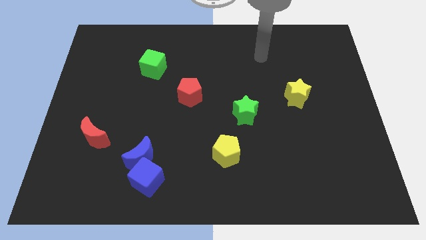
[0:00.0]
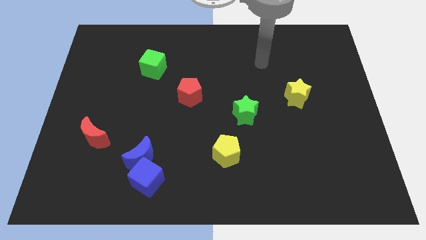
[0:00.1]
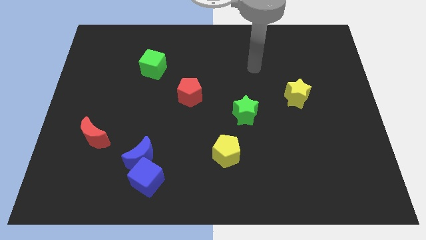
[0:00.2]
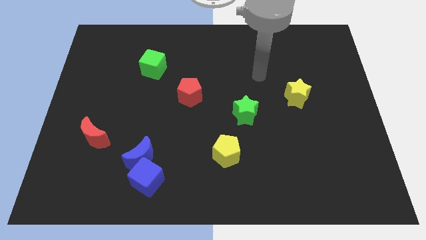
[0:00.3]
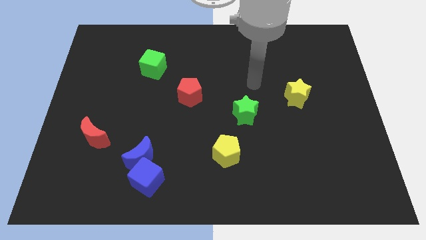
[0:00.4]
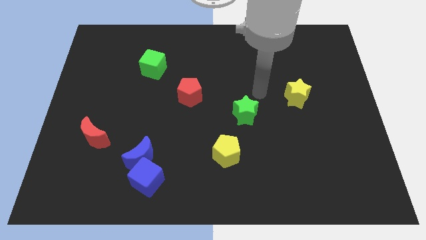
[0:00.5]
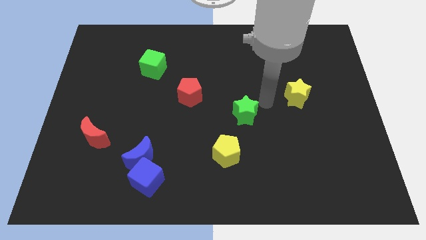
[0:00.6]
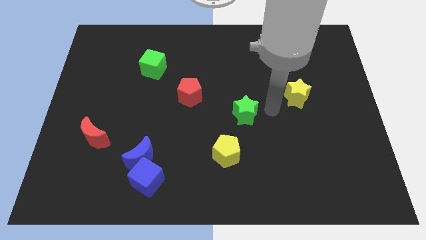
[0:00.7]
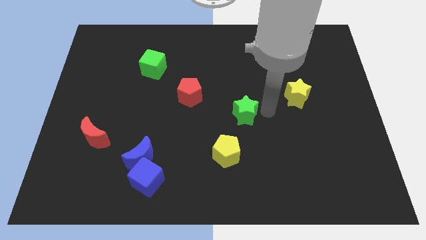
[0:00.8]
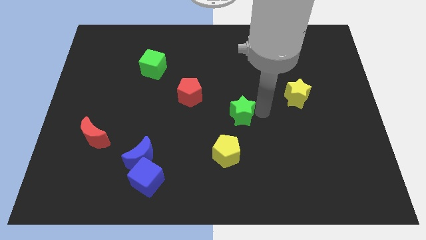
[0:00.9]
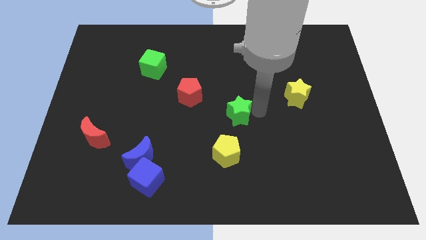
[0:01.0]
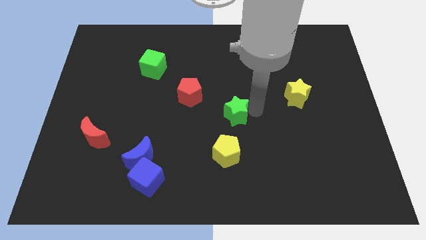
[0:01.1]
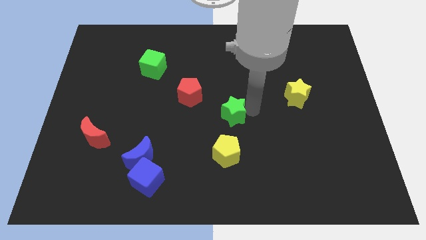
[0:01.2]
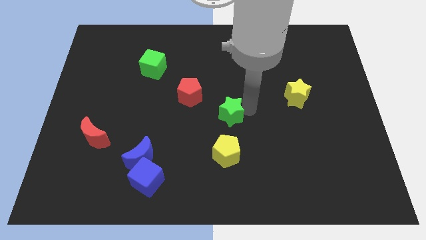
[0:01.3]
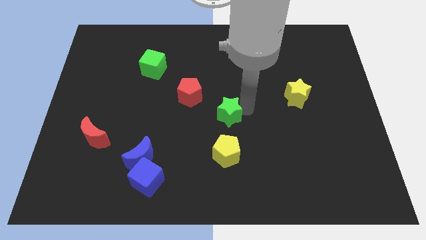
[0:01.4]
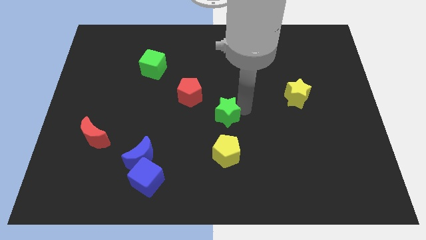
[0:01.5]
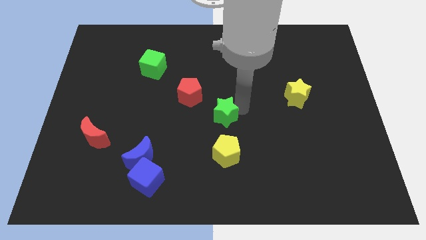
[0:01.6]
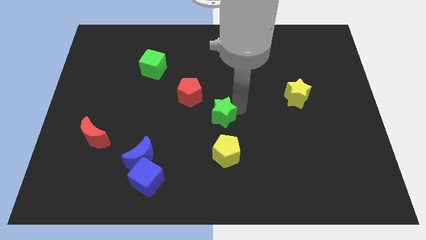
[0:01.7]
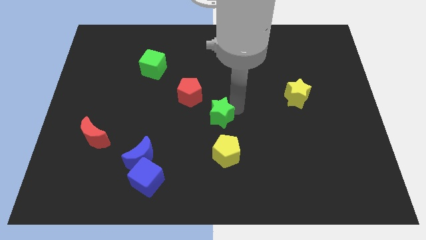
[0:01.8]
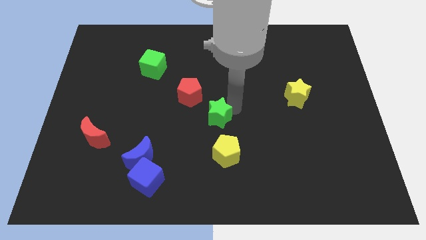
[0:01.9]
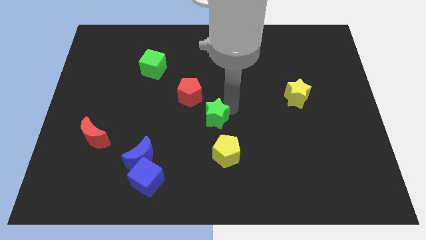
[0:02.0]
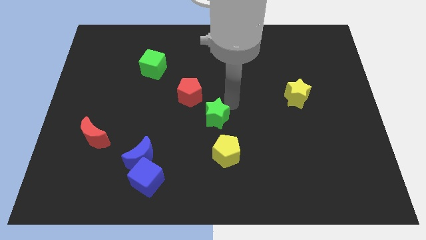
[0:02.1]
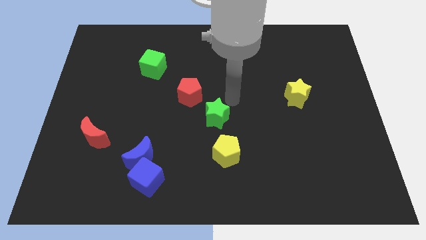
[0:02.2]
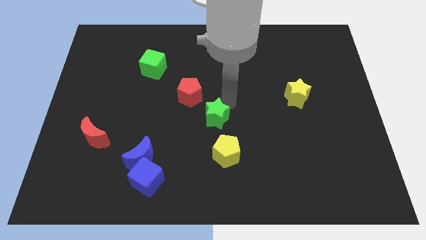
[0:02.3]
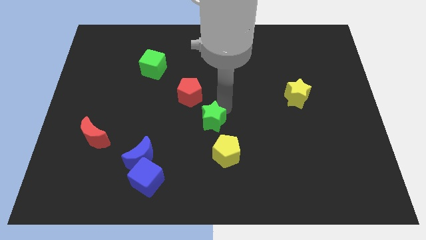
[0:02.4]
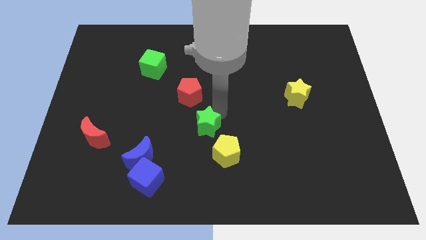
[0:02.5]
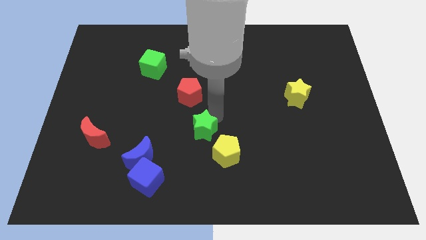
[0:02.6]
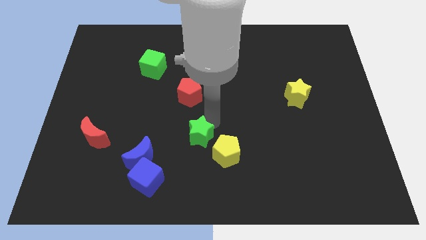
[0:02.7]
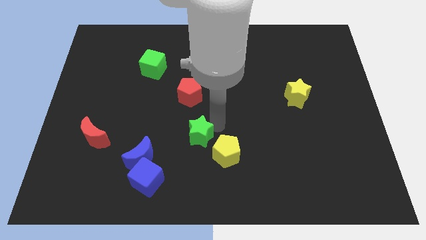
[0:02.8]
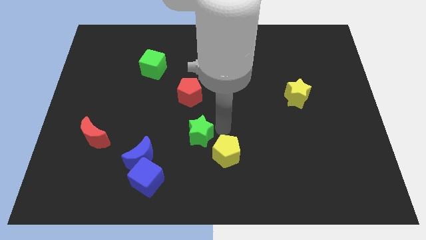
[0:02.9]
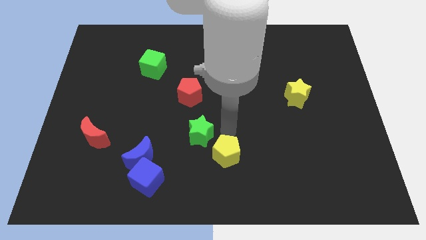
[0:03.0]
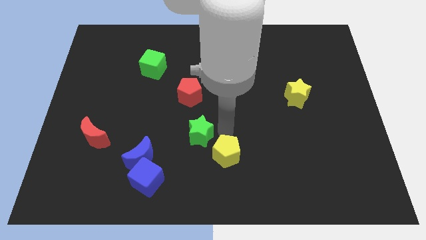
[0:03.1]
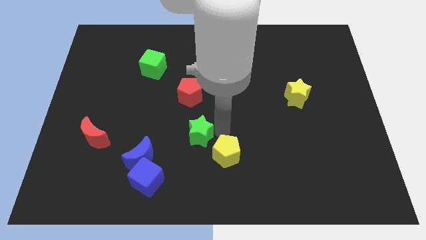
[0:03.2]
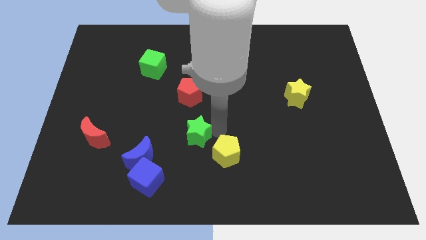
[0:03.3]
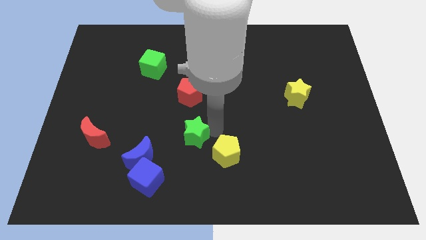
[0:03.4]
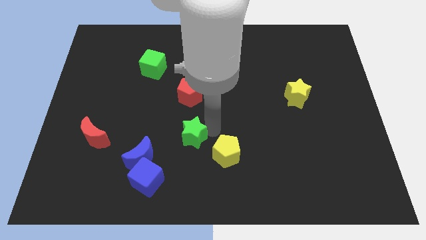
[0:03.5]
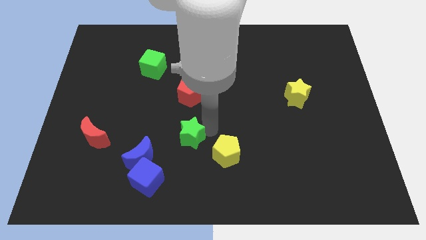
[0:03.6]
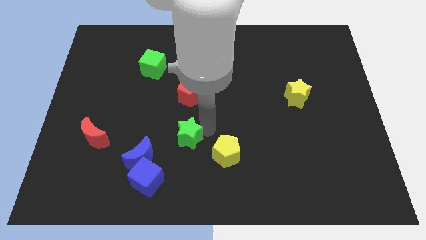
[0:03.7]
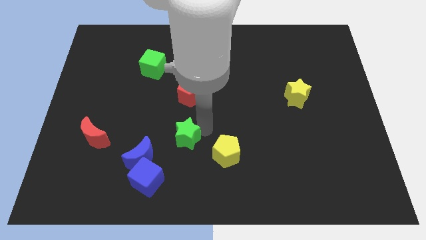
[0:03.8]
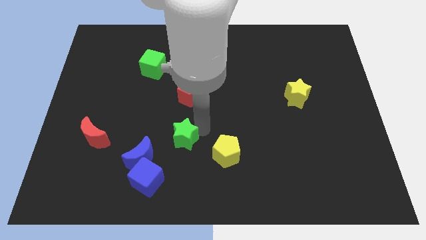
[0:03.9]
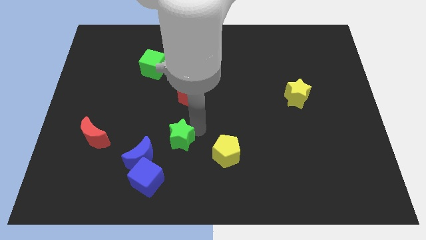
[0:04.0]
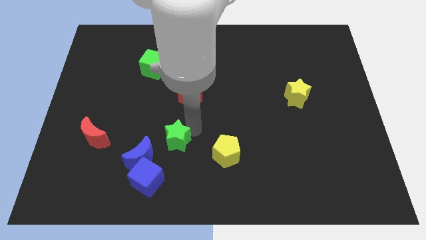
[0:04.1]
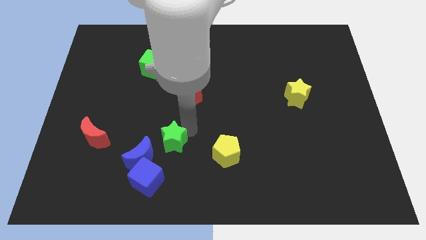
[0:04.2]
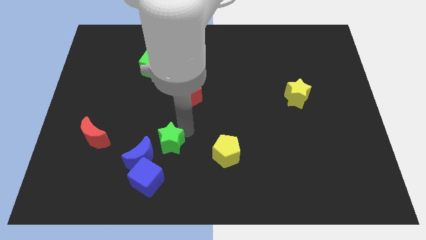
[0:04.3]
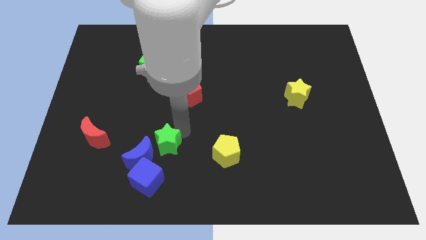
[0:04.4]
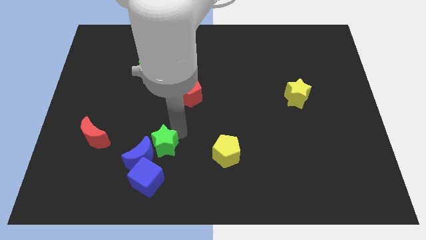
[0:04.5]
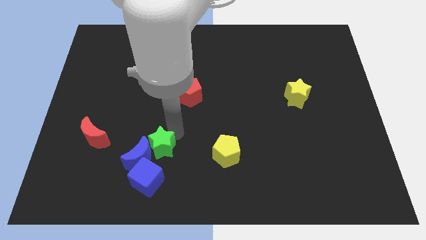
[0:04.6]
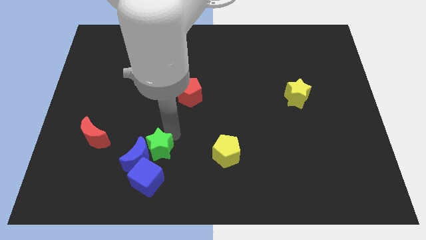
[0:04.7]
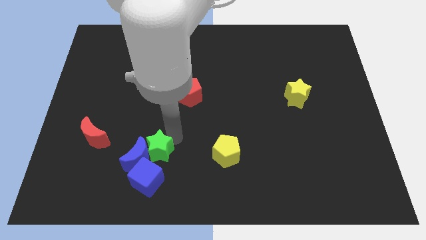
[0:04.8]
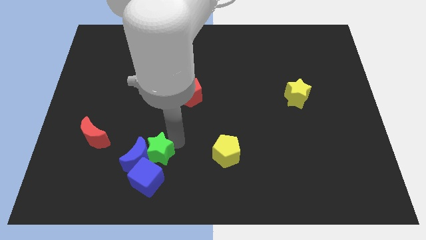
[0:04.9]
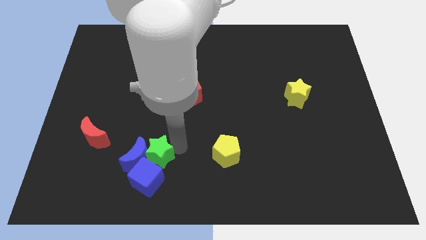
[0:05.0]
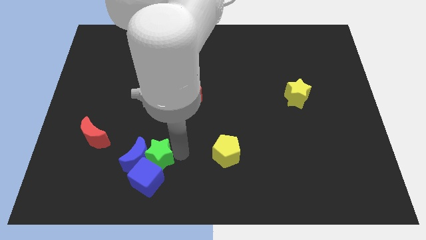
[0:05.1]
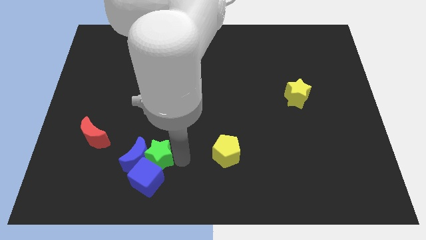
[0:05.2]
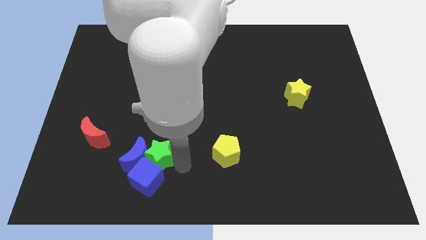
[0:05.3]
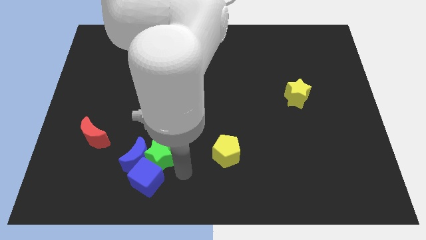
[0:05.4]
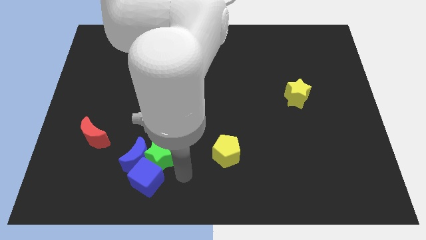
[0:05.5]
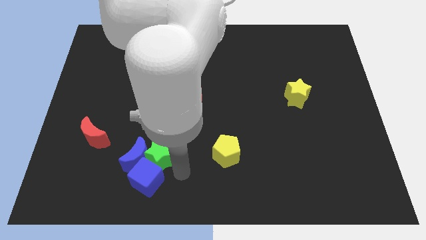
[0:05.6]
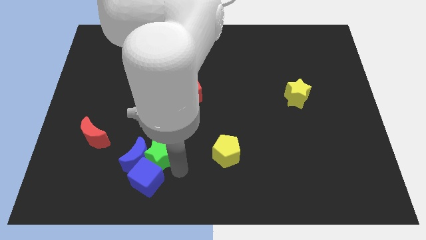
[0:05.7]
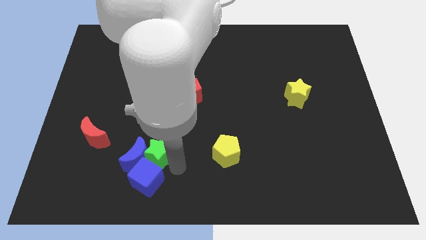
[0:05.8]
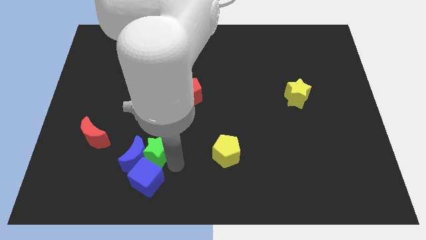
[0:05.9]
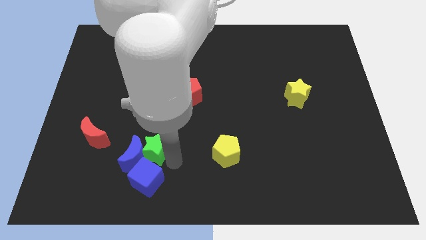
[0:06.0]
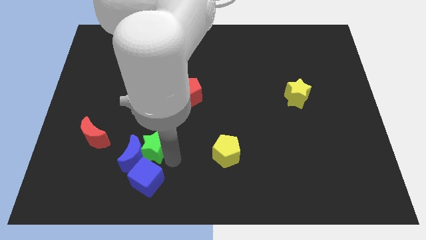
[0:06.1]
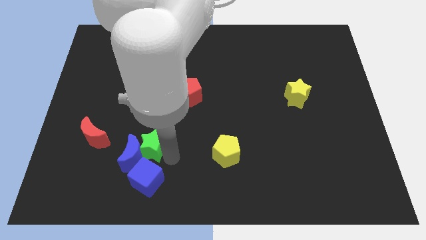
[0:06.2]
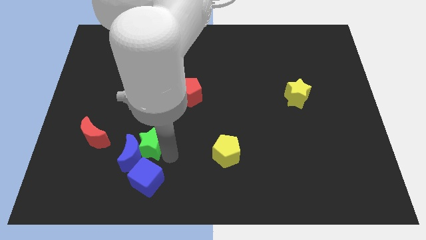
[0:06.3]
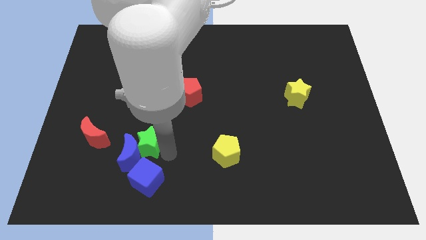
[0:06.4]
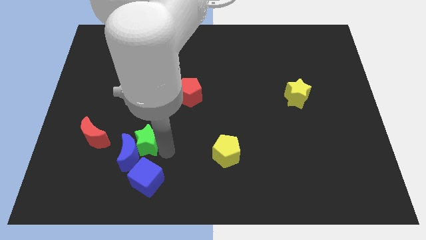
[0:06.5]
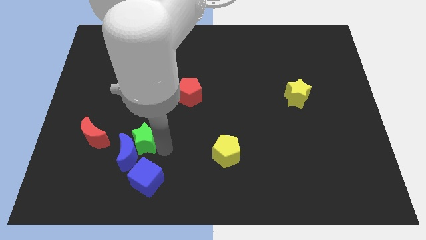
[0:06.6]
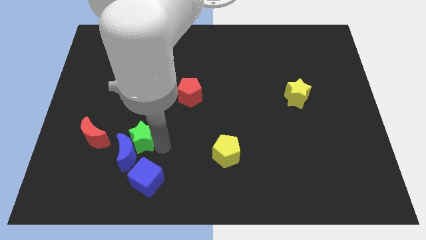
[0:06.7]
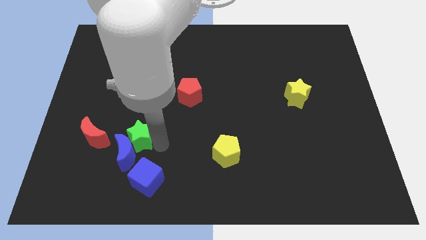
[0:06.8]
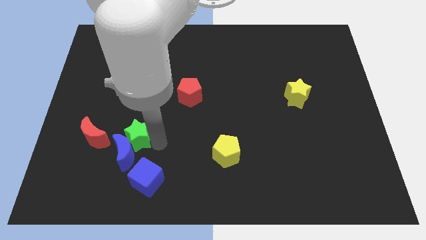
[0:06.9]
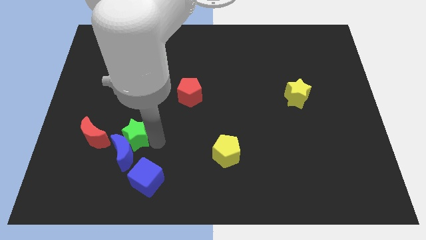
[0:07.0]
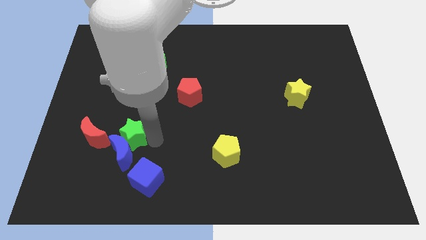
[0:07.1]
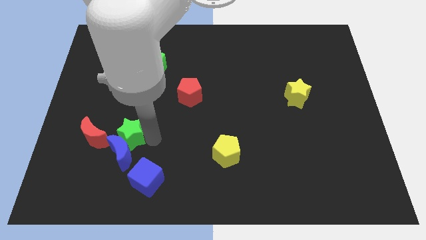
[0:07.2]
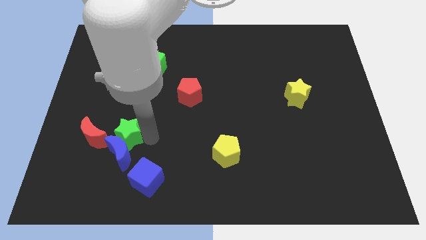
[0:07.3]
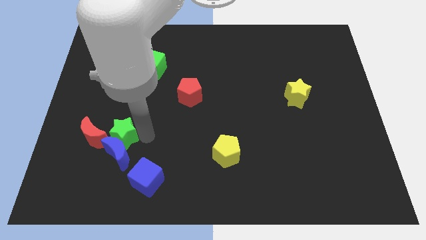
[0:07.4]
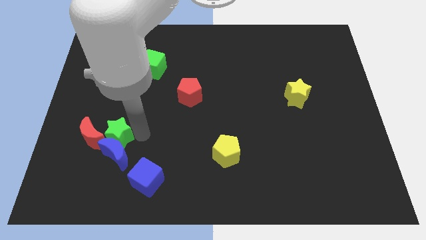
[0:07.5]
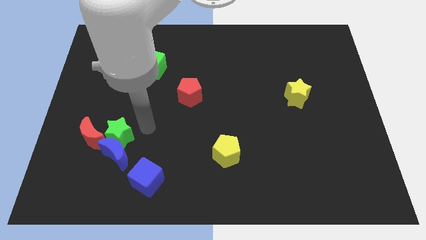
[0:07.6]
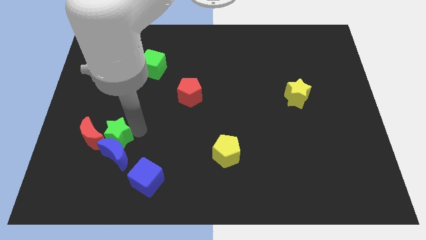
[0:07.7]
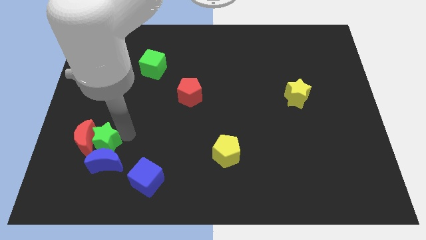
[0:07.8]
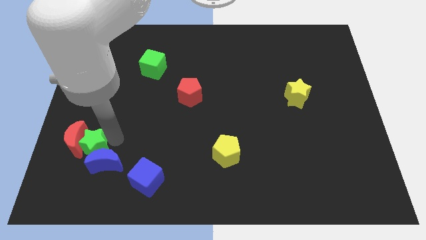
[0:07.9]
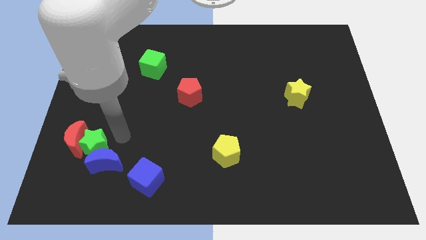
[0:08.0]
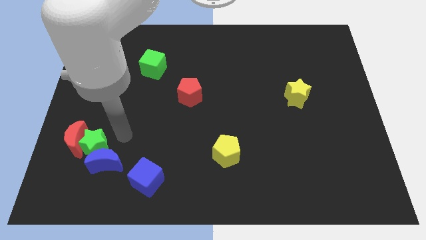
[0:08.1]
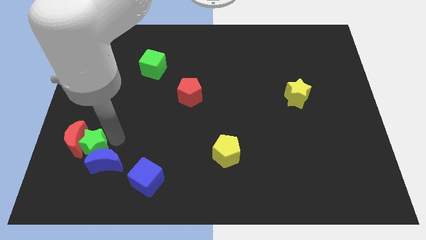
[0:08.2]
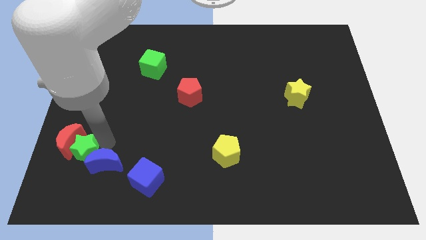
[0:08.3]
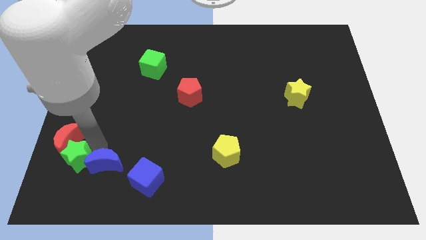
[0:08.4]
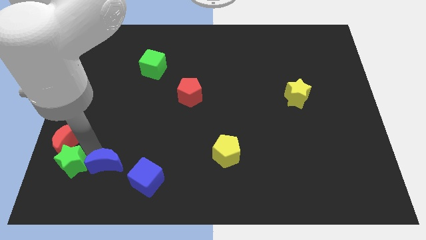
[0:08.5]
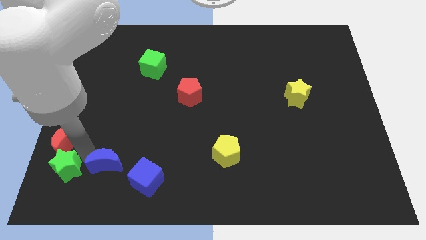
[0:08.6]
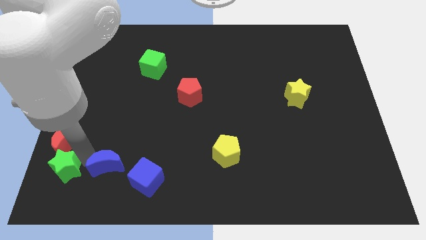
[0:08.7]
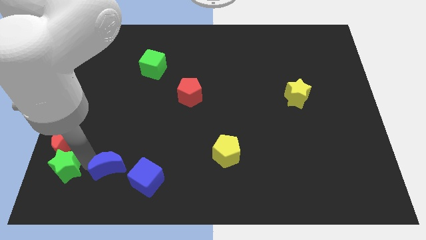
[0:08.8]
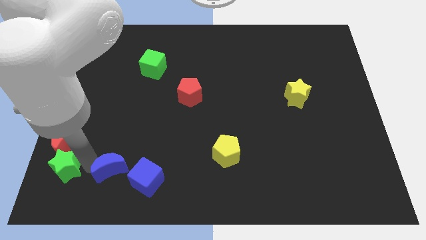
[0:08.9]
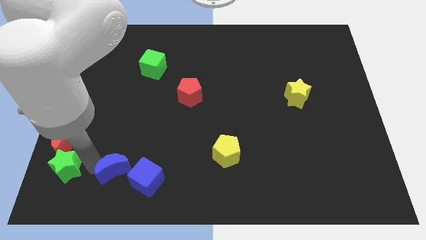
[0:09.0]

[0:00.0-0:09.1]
put the green star to the left of the blue moon
